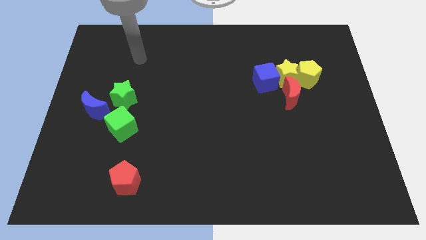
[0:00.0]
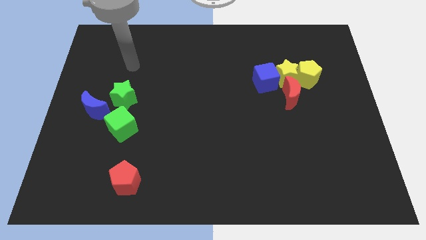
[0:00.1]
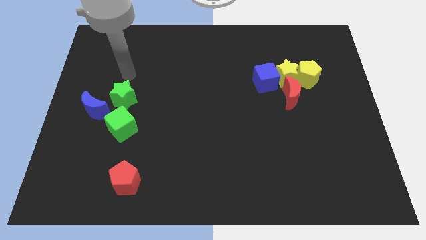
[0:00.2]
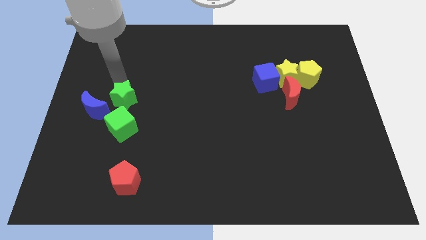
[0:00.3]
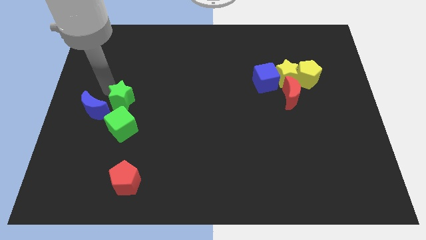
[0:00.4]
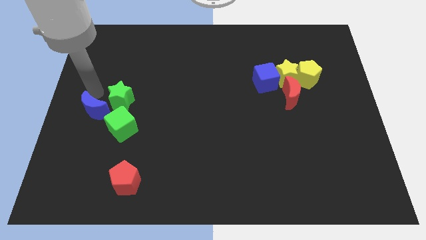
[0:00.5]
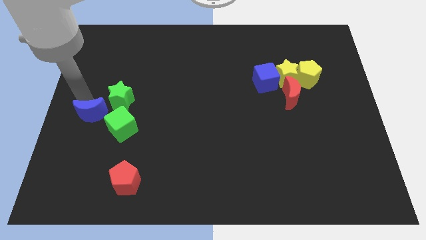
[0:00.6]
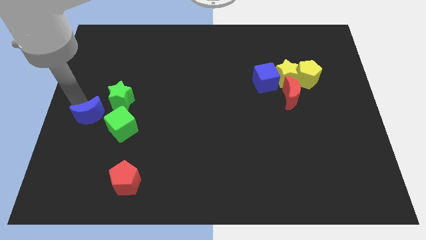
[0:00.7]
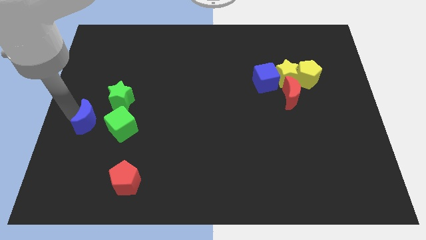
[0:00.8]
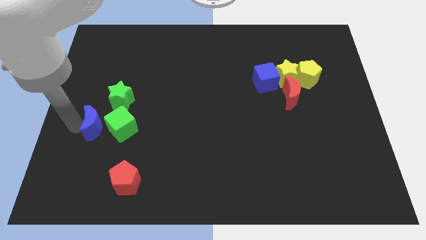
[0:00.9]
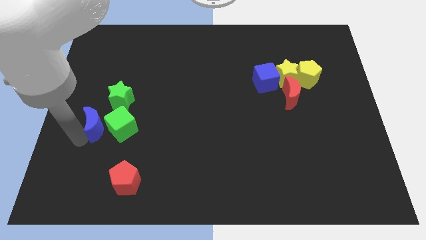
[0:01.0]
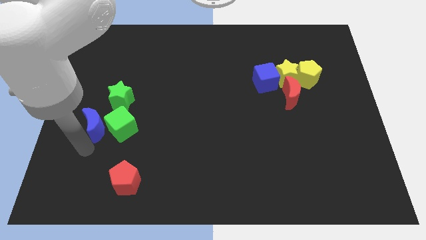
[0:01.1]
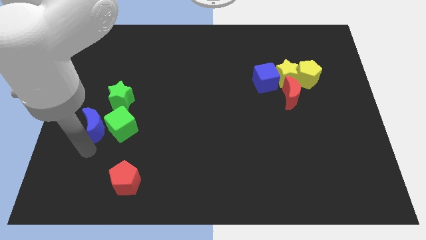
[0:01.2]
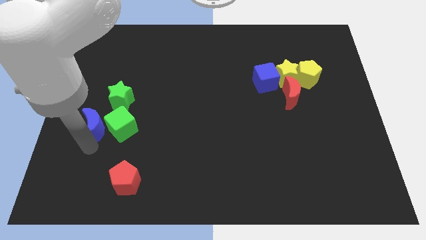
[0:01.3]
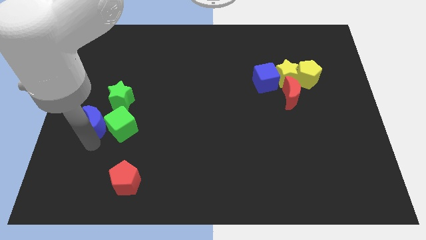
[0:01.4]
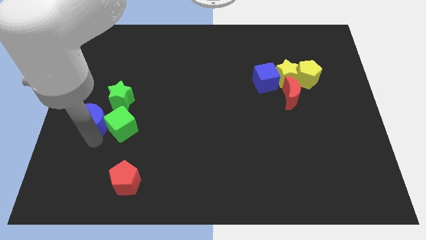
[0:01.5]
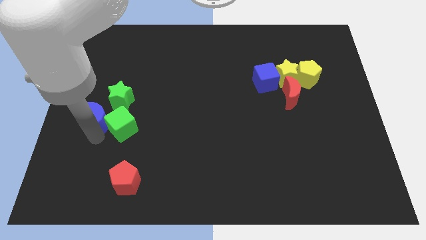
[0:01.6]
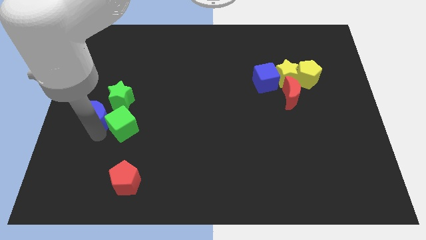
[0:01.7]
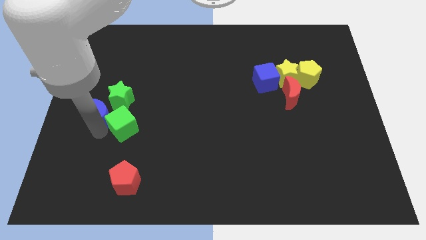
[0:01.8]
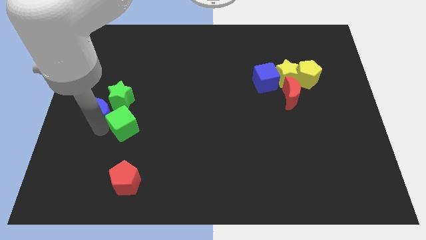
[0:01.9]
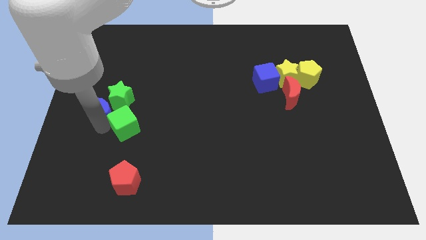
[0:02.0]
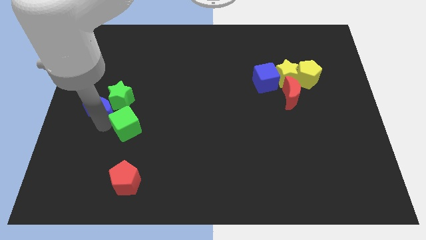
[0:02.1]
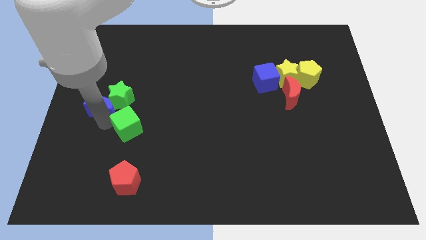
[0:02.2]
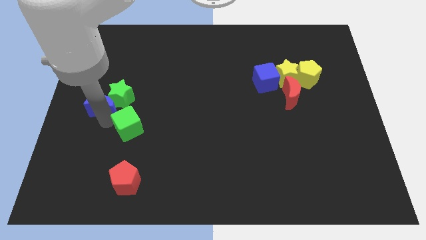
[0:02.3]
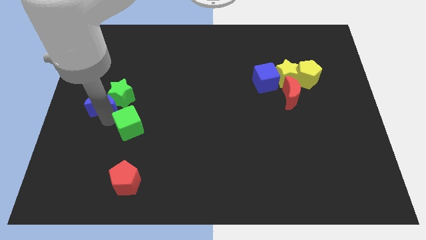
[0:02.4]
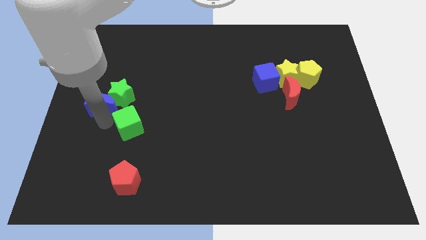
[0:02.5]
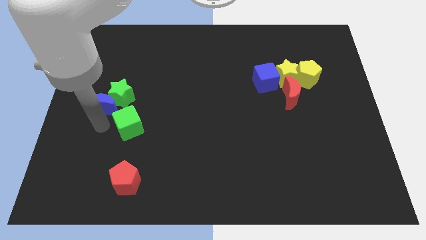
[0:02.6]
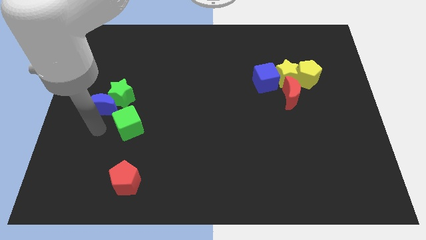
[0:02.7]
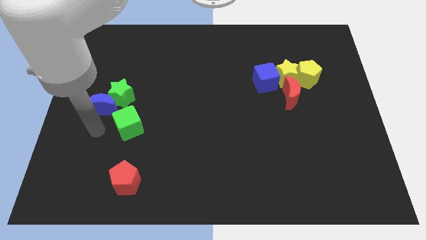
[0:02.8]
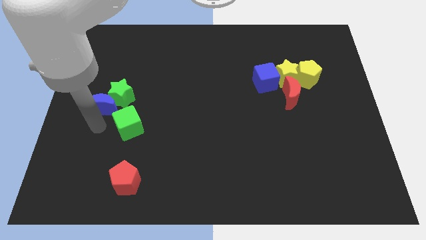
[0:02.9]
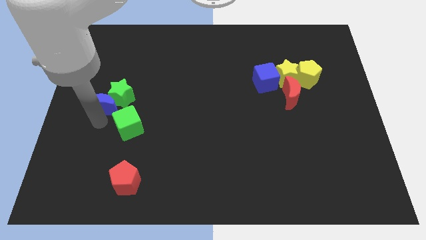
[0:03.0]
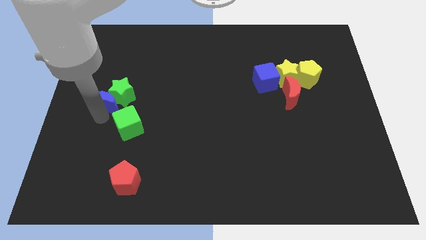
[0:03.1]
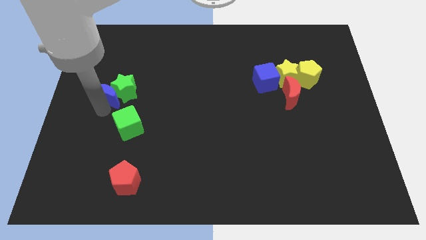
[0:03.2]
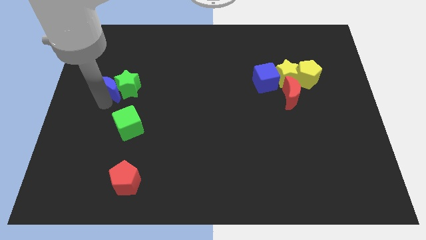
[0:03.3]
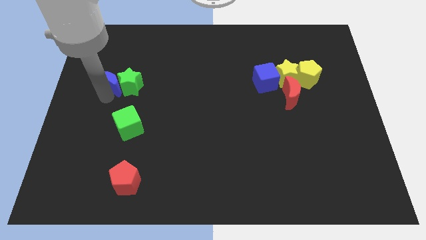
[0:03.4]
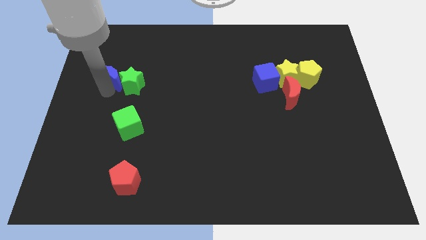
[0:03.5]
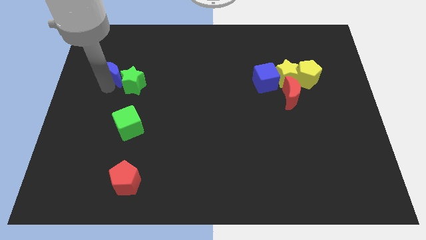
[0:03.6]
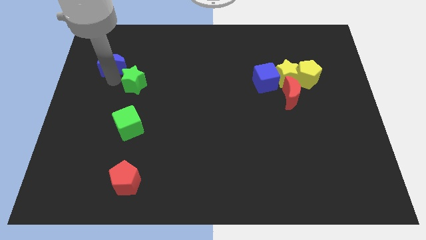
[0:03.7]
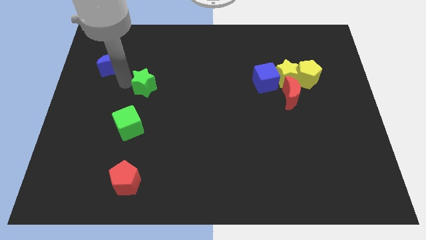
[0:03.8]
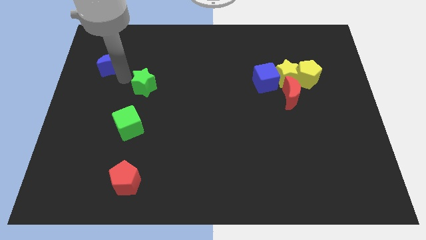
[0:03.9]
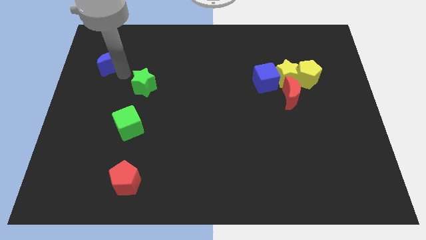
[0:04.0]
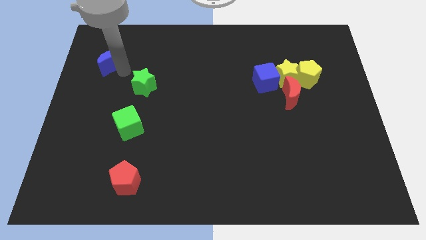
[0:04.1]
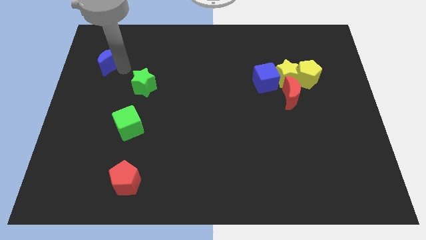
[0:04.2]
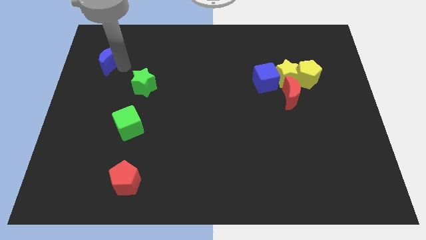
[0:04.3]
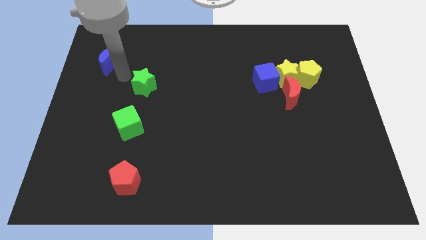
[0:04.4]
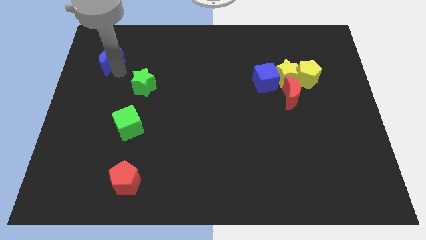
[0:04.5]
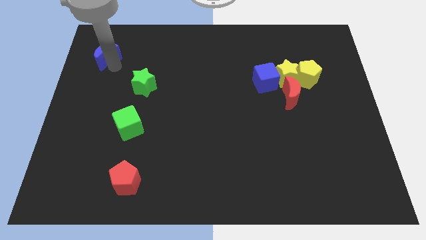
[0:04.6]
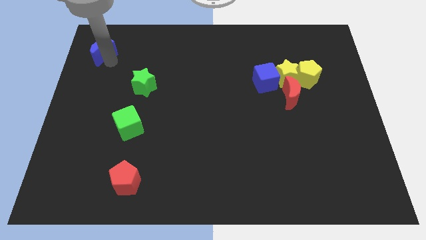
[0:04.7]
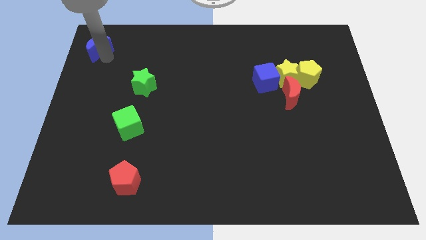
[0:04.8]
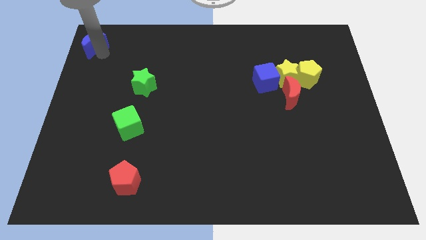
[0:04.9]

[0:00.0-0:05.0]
push the blue moon to the top left

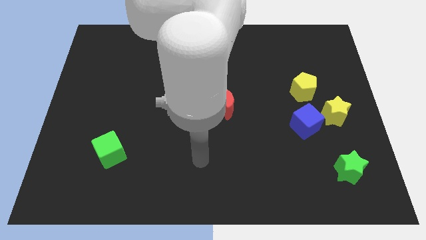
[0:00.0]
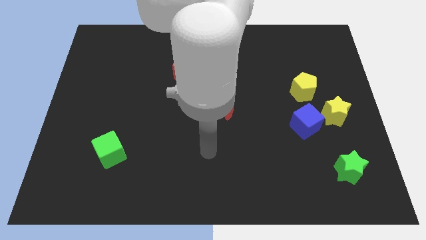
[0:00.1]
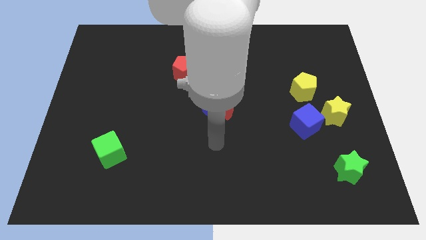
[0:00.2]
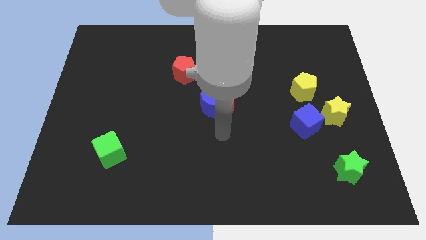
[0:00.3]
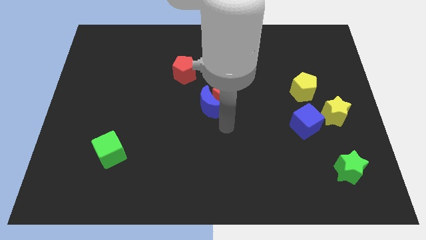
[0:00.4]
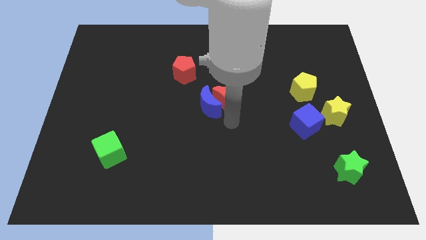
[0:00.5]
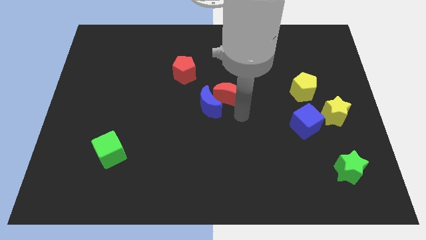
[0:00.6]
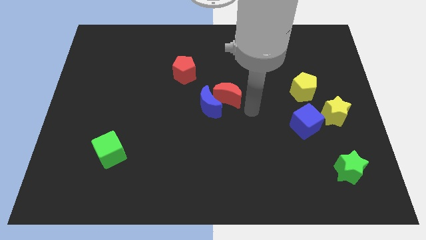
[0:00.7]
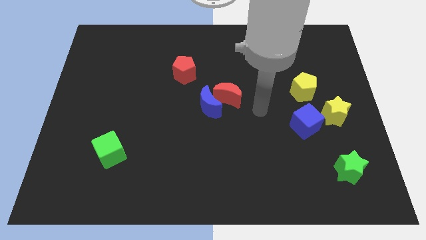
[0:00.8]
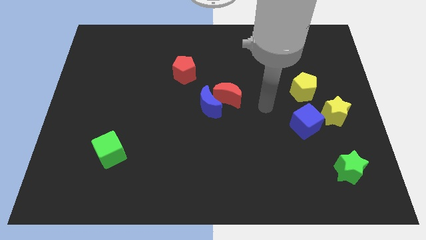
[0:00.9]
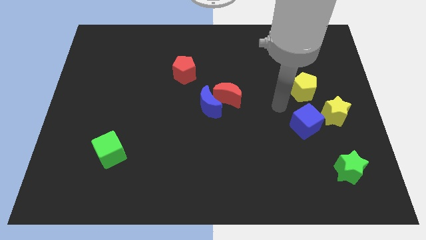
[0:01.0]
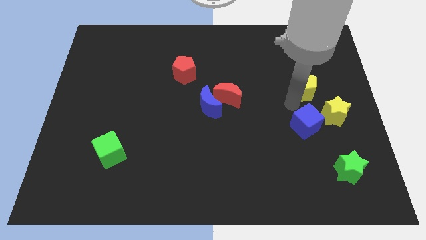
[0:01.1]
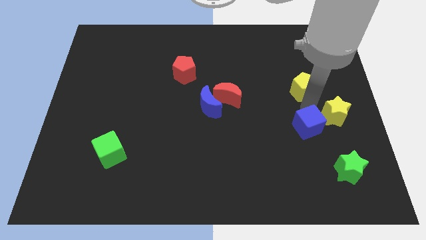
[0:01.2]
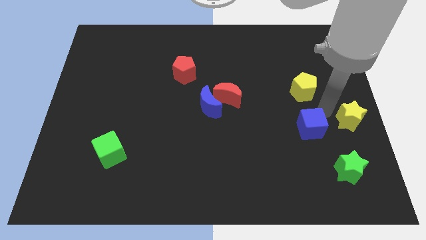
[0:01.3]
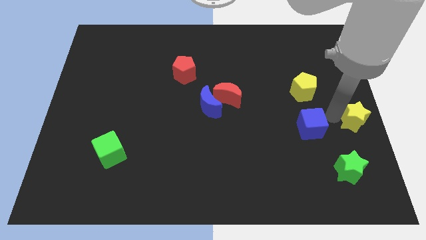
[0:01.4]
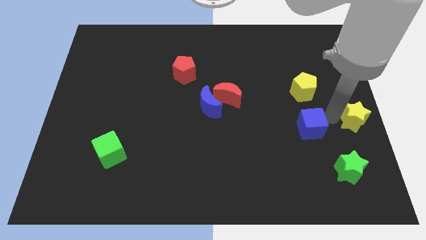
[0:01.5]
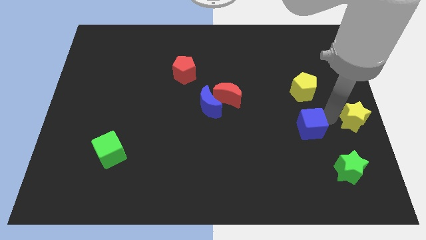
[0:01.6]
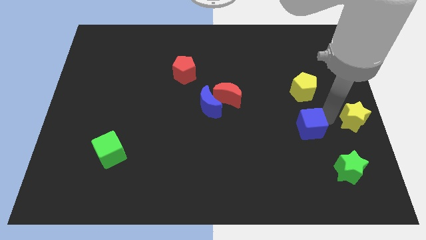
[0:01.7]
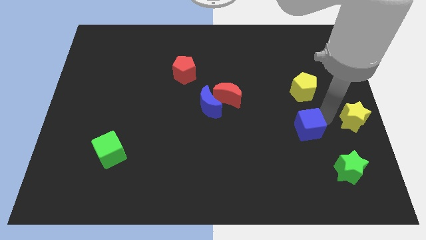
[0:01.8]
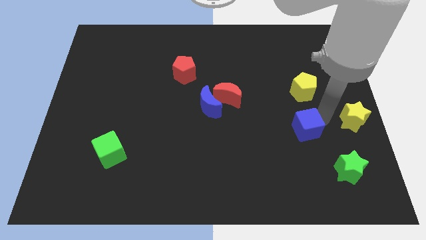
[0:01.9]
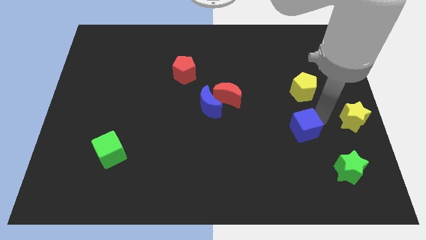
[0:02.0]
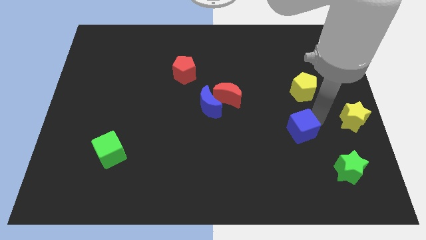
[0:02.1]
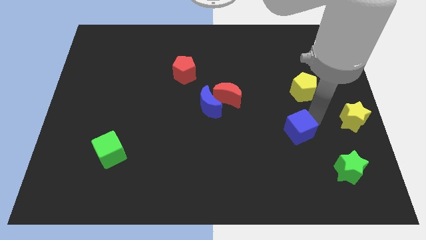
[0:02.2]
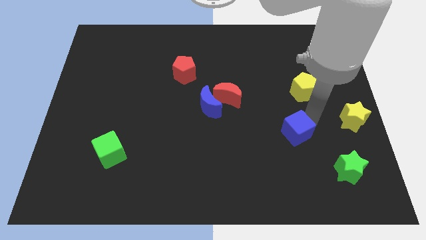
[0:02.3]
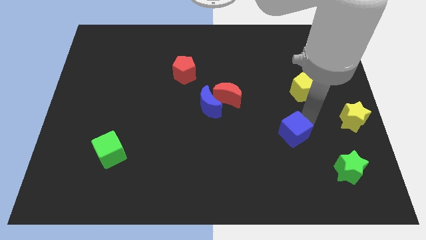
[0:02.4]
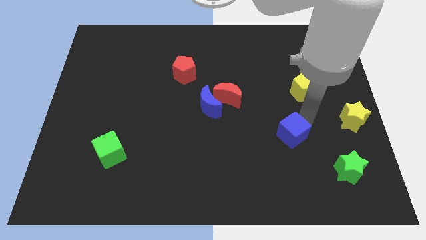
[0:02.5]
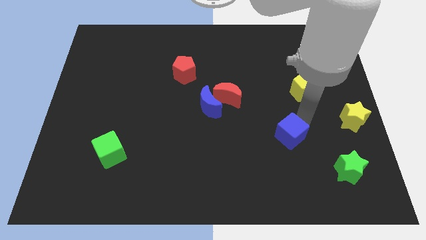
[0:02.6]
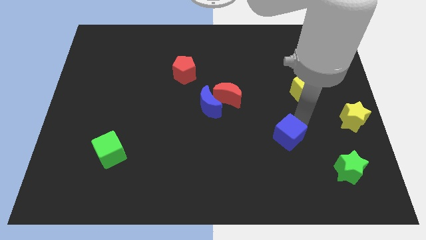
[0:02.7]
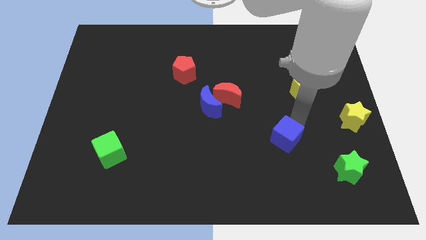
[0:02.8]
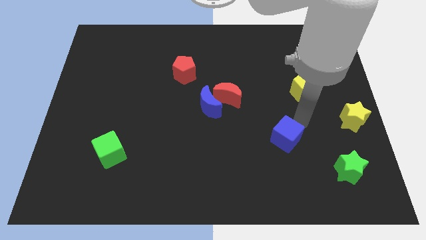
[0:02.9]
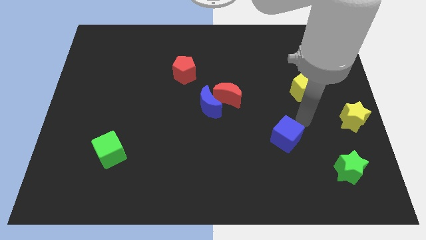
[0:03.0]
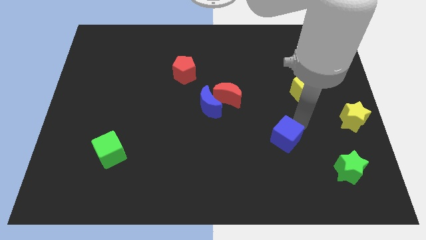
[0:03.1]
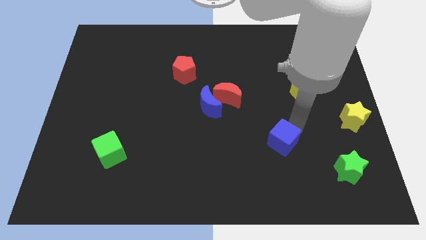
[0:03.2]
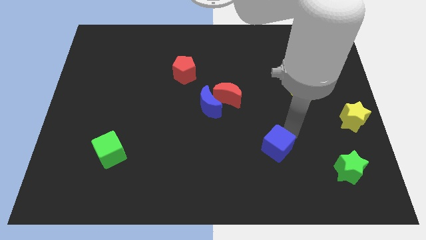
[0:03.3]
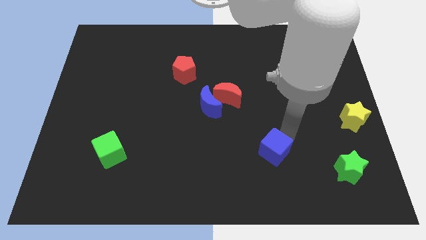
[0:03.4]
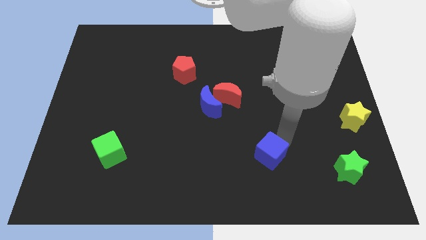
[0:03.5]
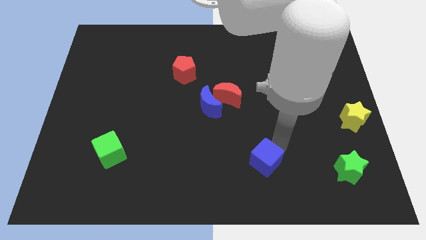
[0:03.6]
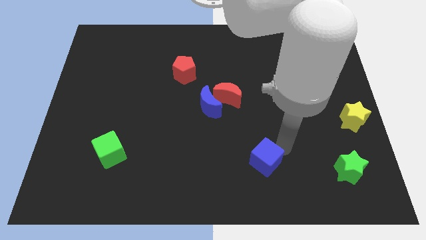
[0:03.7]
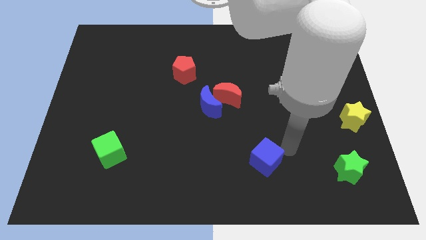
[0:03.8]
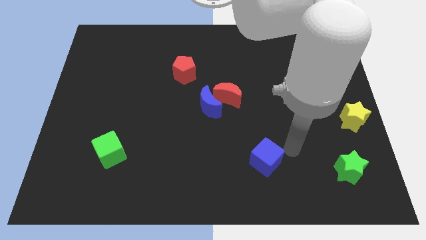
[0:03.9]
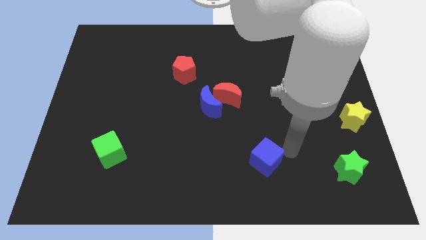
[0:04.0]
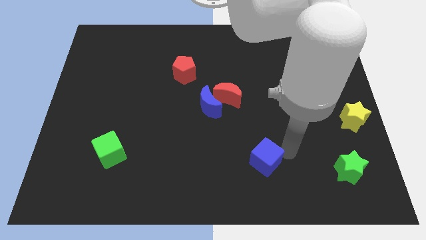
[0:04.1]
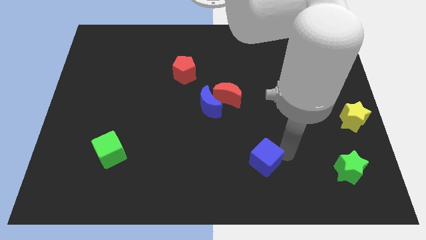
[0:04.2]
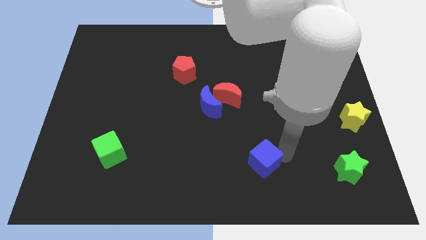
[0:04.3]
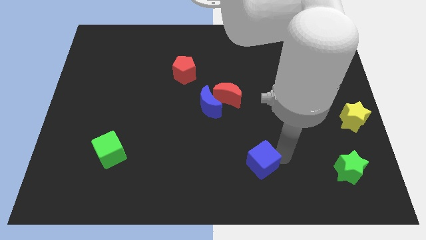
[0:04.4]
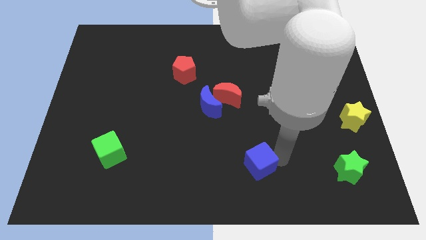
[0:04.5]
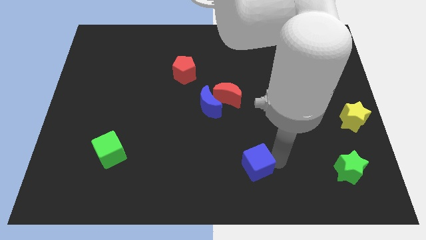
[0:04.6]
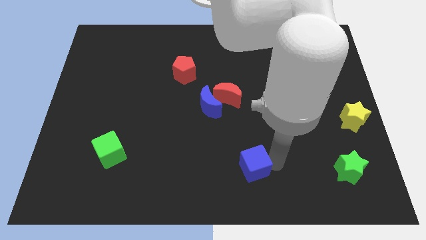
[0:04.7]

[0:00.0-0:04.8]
put the blue cube to the bottom side
